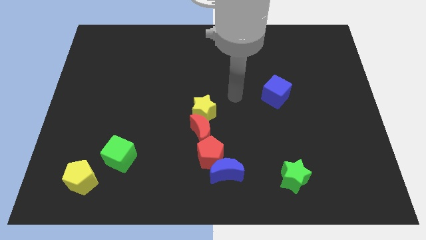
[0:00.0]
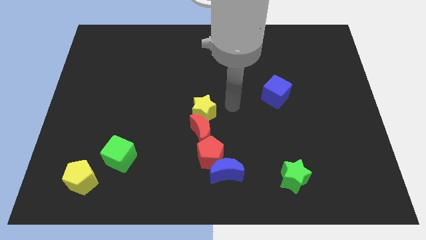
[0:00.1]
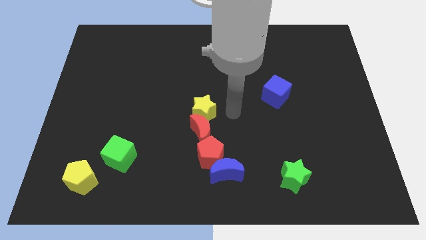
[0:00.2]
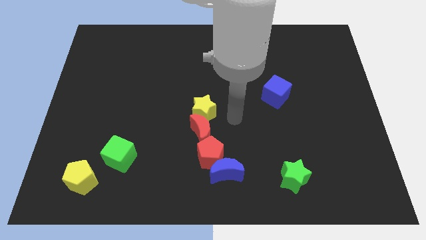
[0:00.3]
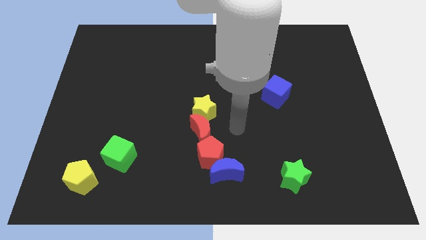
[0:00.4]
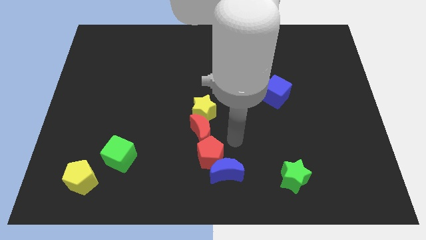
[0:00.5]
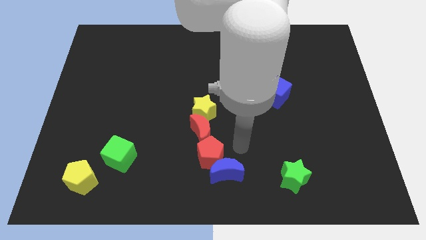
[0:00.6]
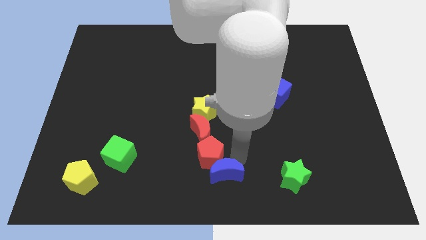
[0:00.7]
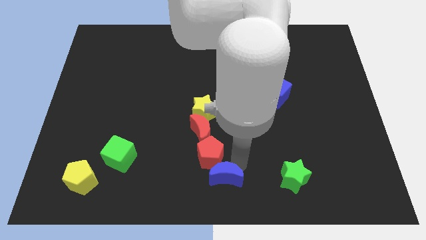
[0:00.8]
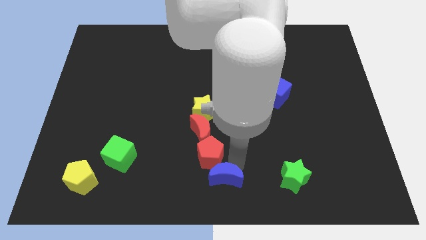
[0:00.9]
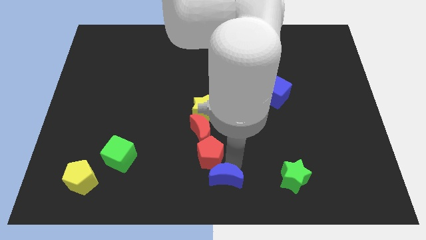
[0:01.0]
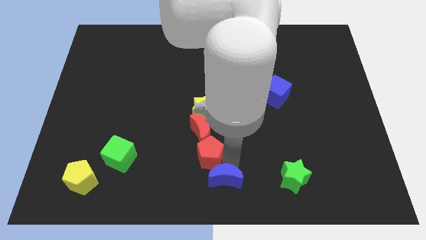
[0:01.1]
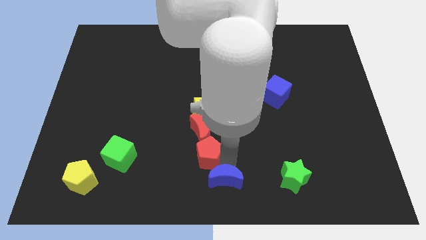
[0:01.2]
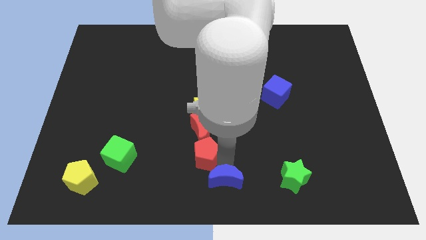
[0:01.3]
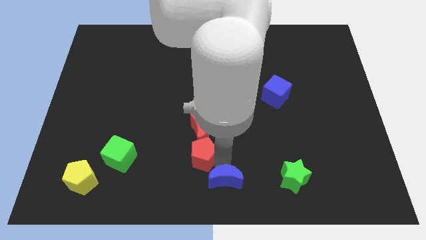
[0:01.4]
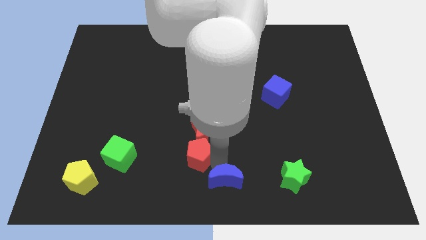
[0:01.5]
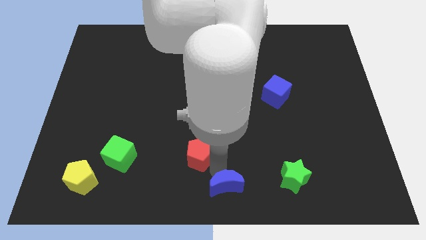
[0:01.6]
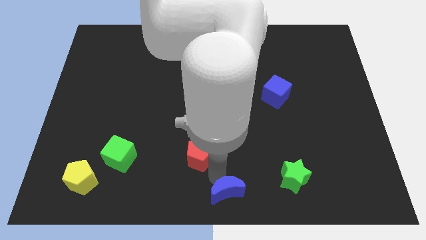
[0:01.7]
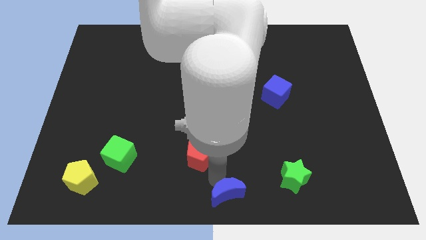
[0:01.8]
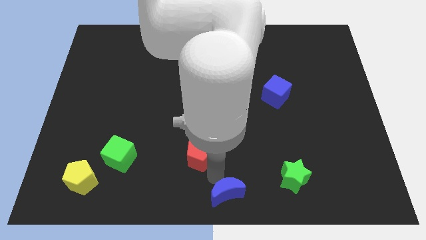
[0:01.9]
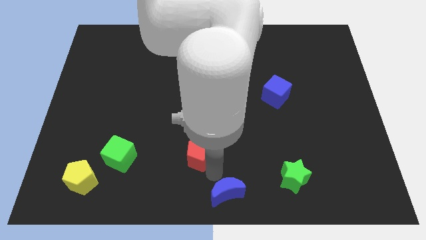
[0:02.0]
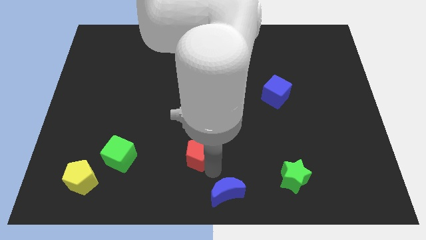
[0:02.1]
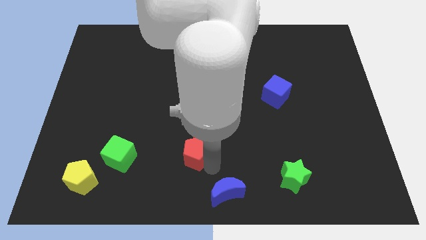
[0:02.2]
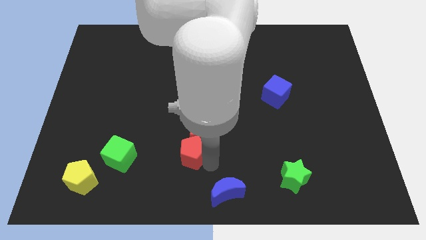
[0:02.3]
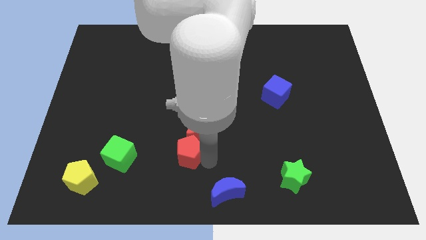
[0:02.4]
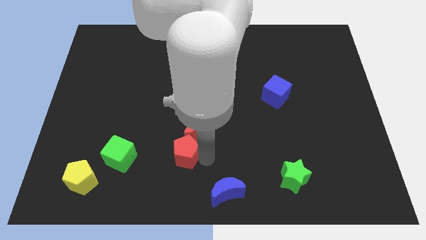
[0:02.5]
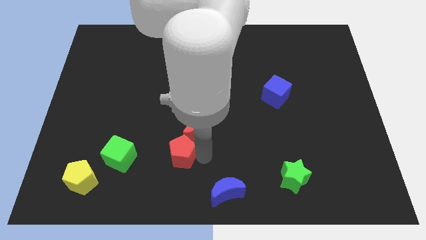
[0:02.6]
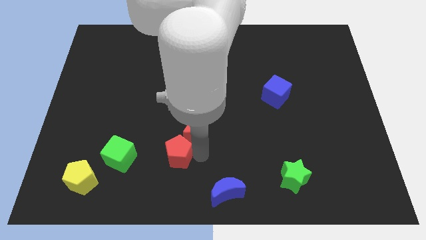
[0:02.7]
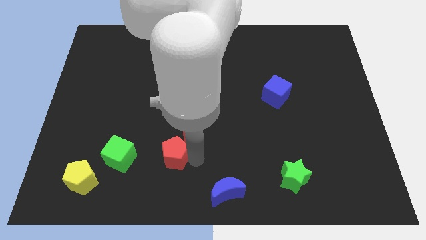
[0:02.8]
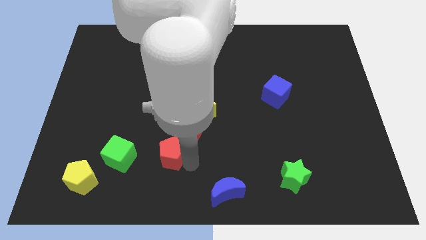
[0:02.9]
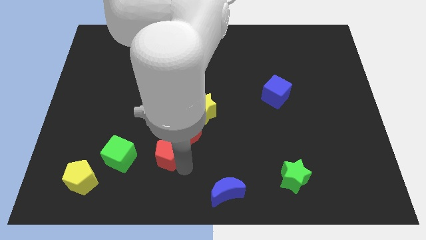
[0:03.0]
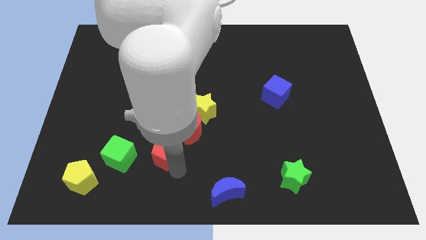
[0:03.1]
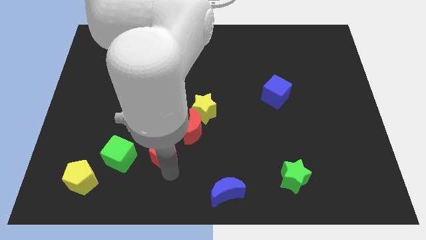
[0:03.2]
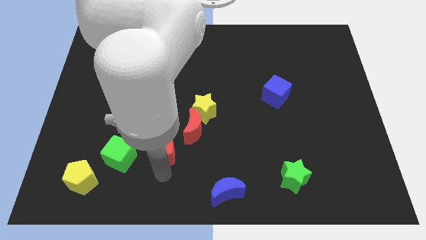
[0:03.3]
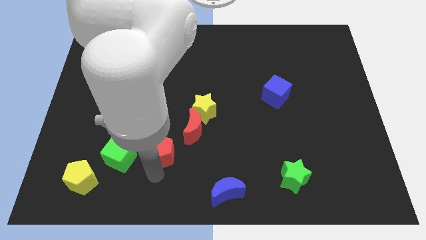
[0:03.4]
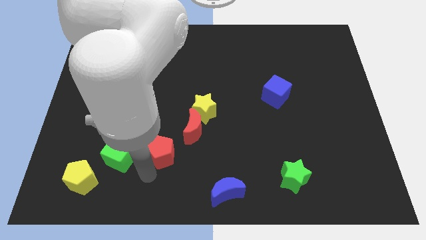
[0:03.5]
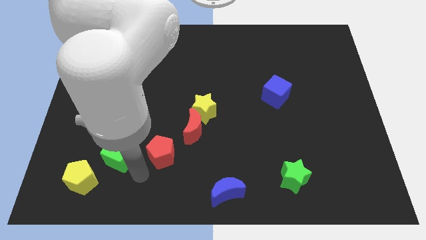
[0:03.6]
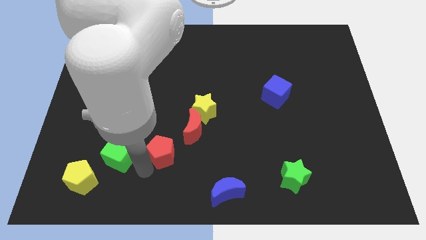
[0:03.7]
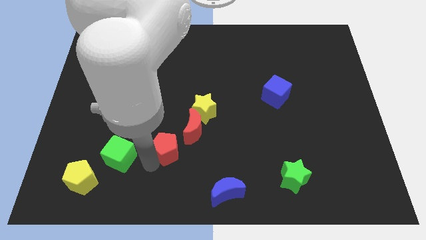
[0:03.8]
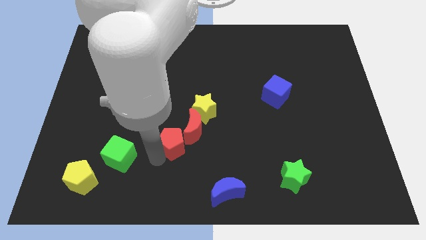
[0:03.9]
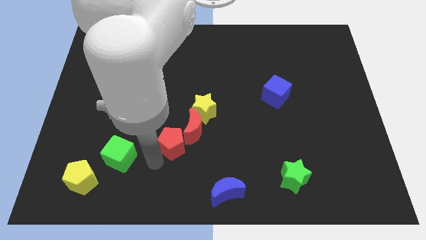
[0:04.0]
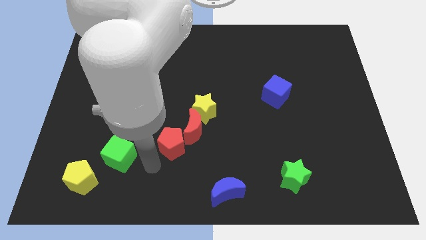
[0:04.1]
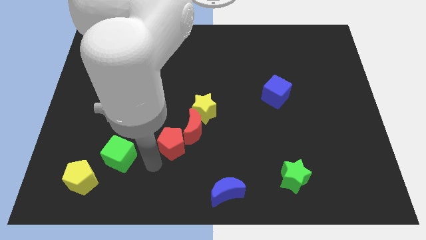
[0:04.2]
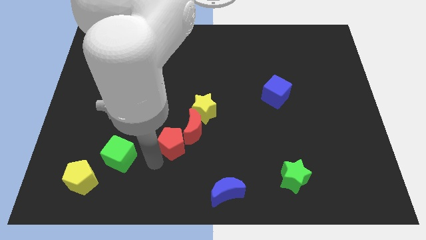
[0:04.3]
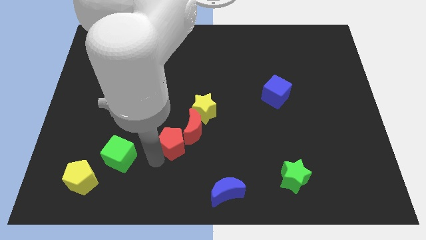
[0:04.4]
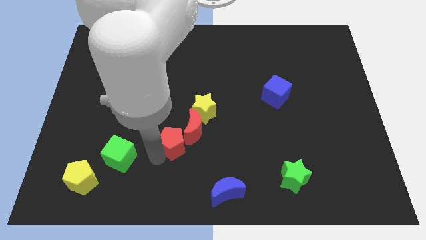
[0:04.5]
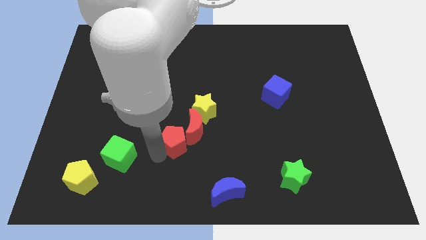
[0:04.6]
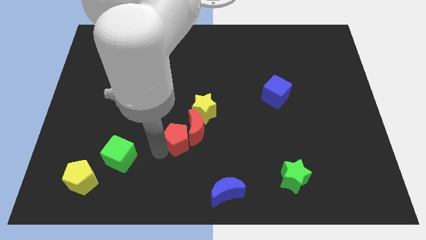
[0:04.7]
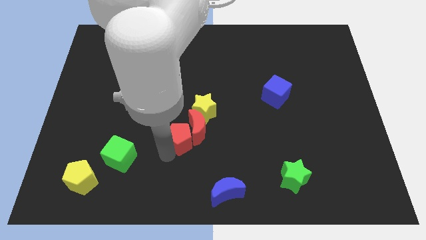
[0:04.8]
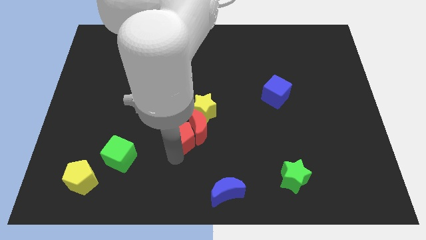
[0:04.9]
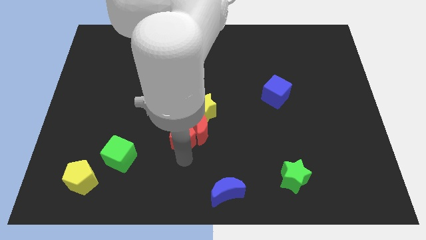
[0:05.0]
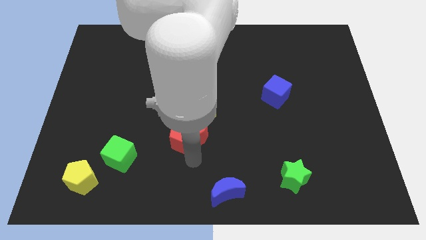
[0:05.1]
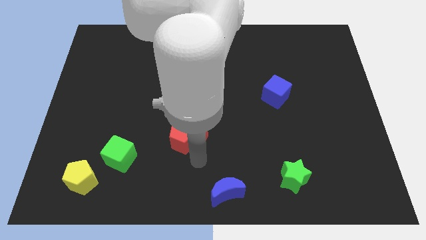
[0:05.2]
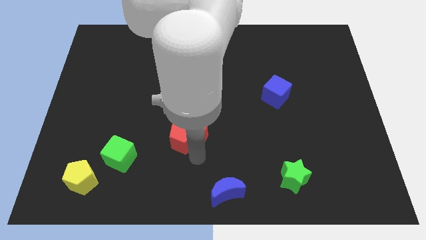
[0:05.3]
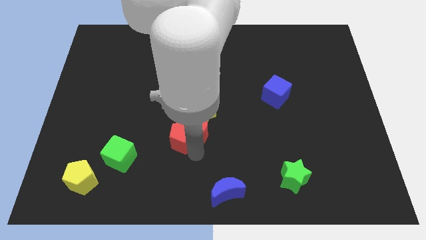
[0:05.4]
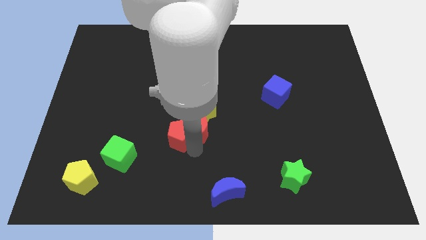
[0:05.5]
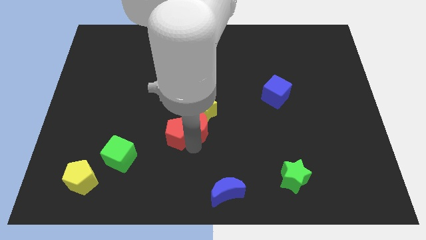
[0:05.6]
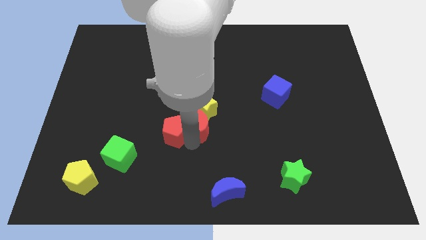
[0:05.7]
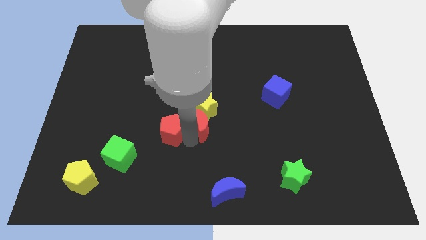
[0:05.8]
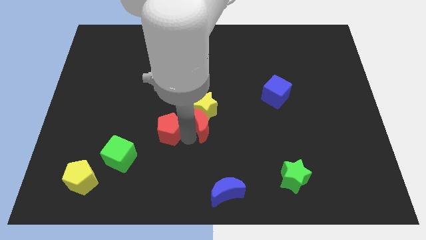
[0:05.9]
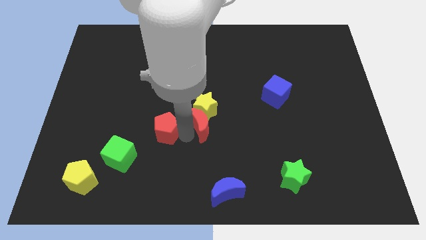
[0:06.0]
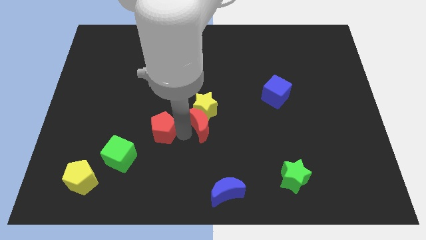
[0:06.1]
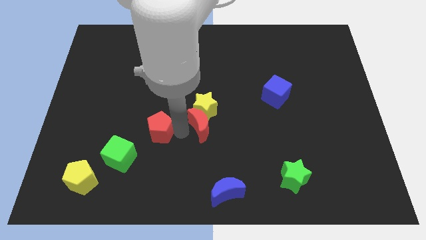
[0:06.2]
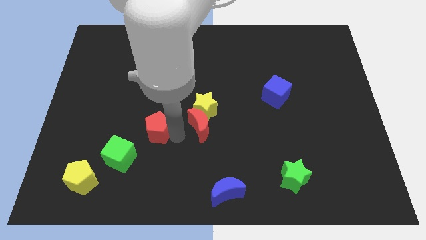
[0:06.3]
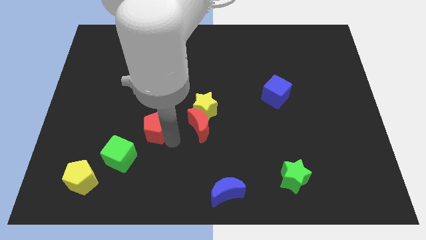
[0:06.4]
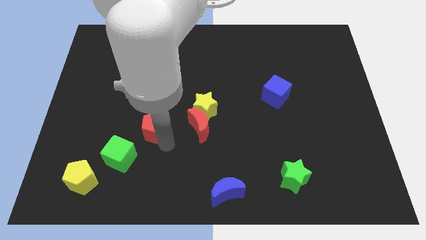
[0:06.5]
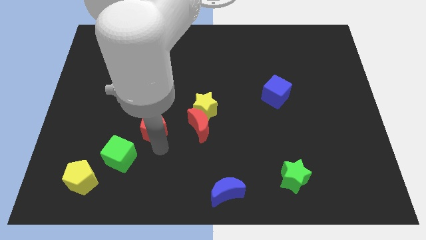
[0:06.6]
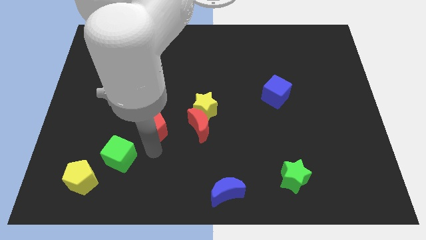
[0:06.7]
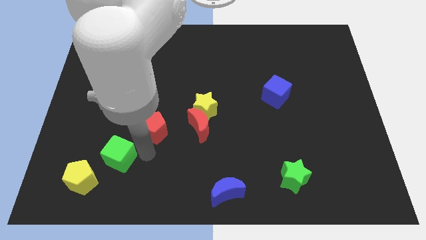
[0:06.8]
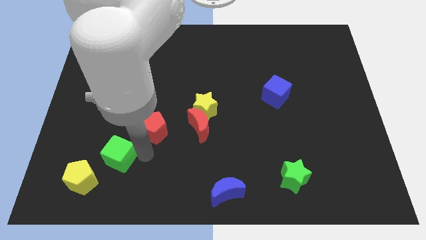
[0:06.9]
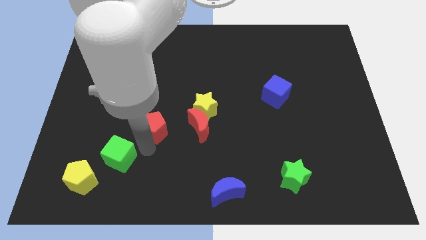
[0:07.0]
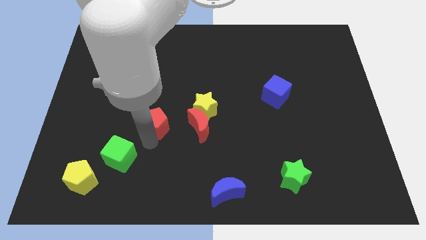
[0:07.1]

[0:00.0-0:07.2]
push the red pentagon to the left side of the yellow star
